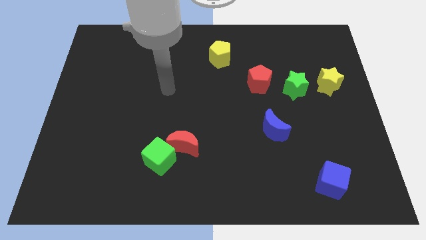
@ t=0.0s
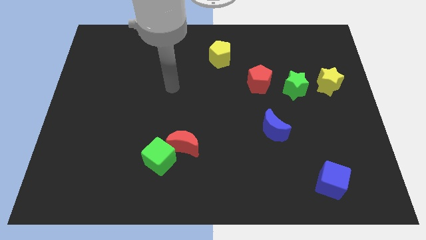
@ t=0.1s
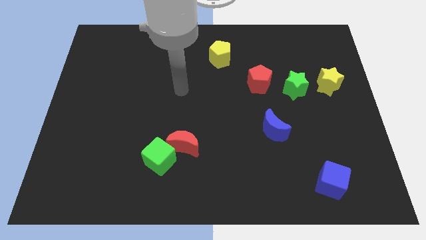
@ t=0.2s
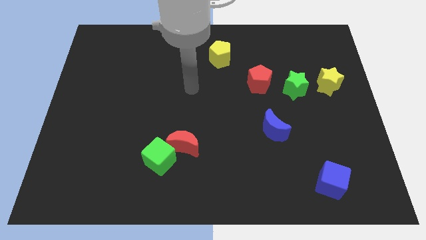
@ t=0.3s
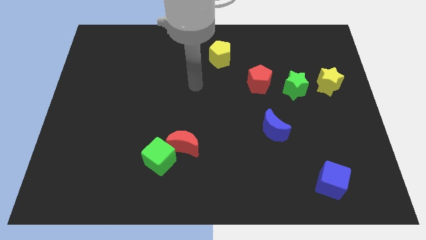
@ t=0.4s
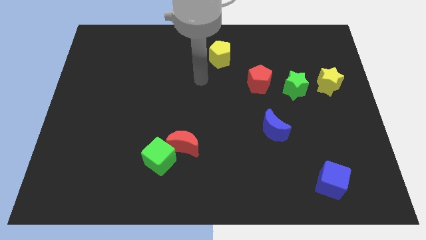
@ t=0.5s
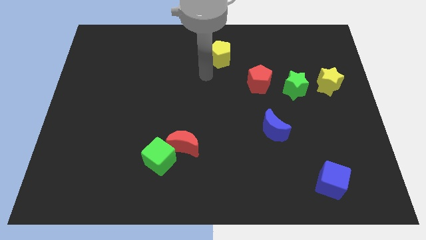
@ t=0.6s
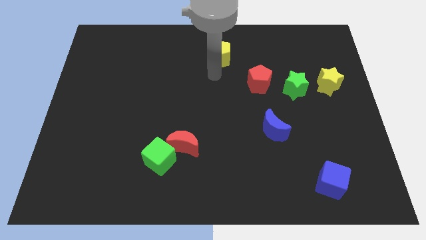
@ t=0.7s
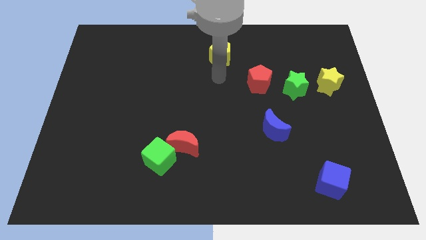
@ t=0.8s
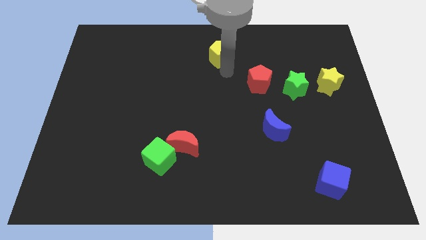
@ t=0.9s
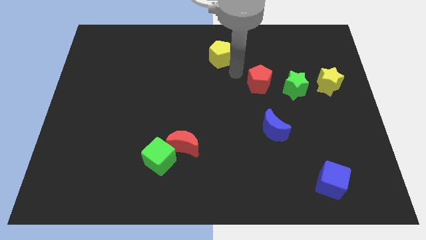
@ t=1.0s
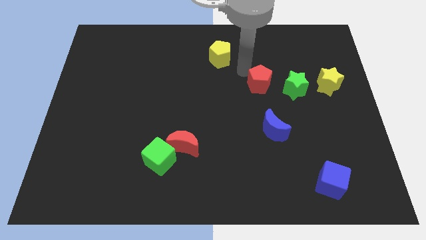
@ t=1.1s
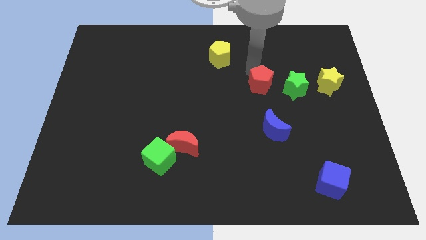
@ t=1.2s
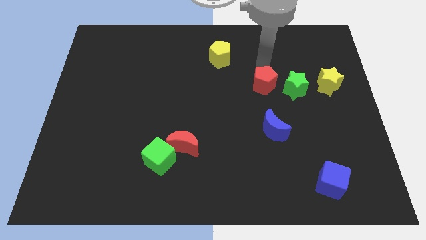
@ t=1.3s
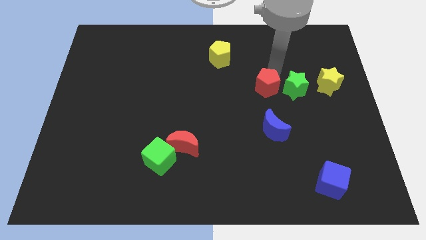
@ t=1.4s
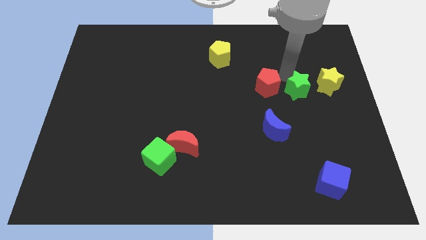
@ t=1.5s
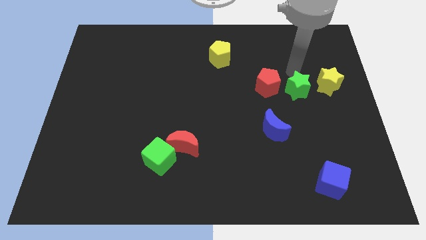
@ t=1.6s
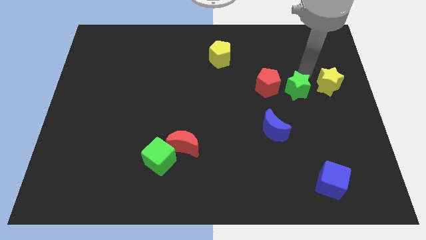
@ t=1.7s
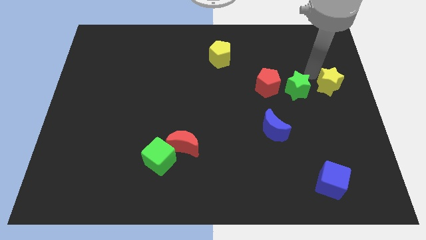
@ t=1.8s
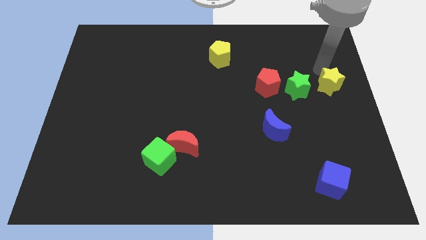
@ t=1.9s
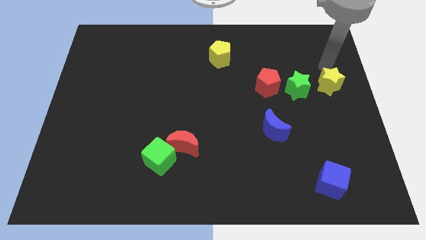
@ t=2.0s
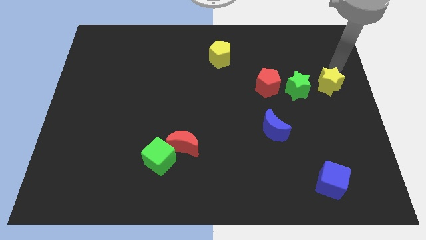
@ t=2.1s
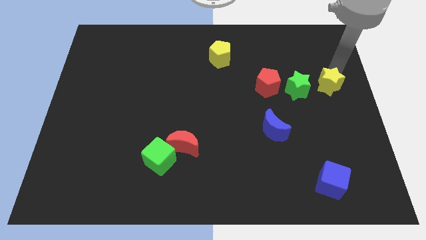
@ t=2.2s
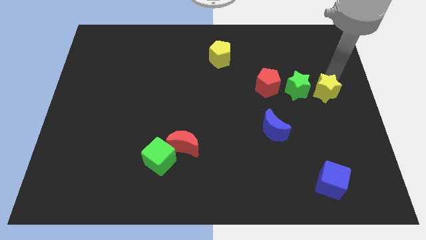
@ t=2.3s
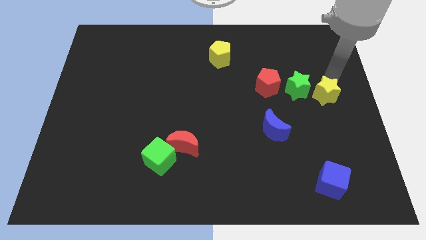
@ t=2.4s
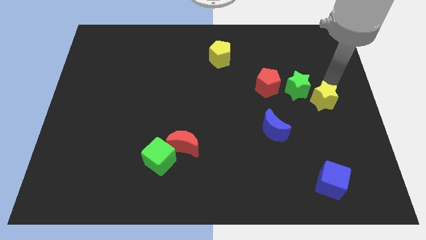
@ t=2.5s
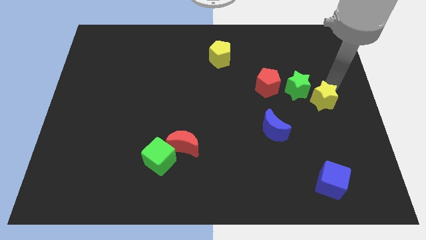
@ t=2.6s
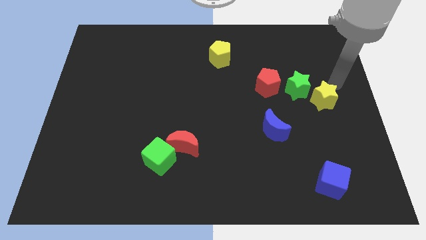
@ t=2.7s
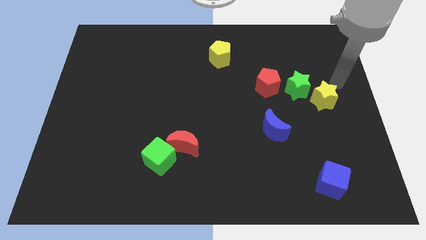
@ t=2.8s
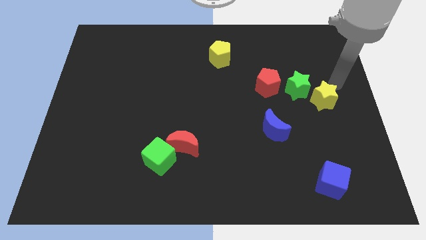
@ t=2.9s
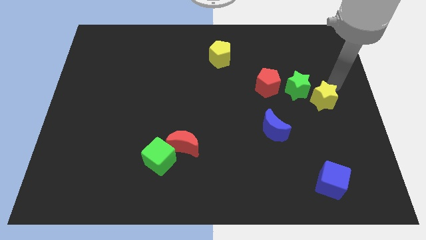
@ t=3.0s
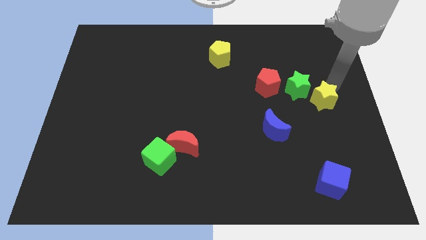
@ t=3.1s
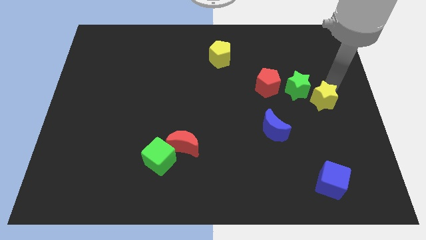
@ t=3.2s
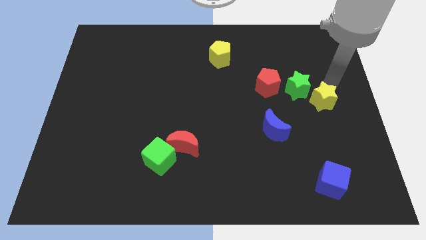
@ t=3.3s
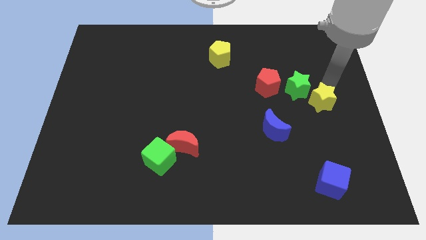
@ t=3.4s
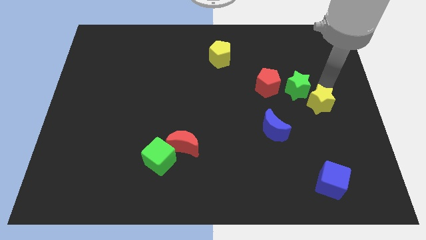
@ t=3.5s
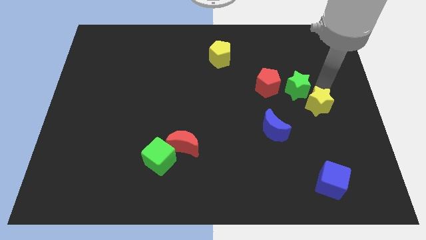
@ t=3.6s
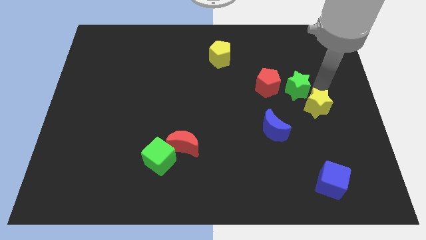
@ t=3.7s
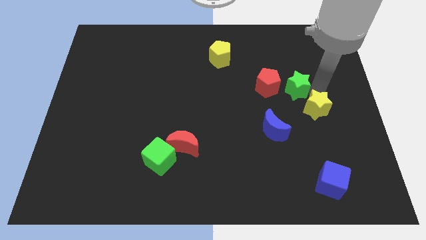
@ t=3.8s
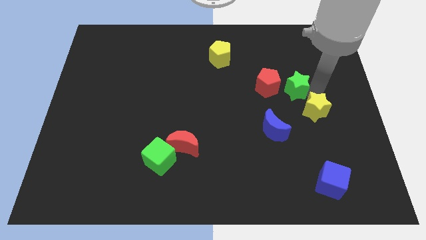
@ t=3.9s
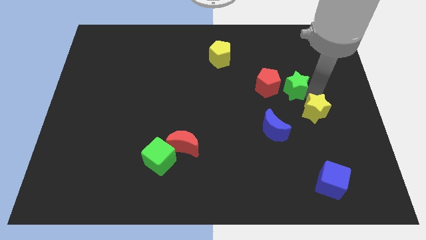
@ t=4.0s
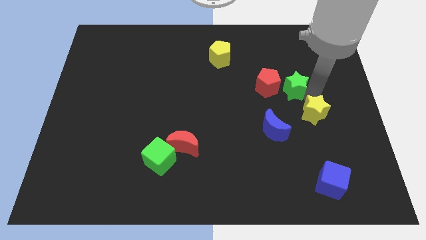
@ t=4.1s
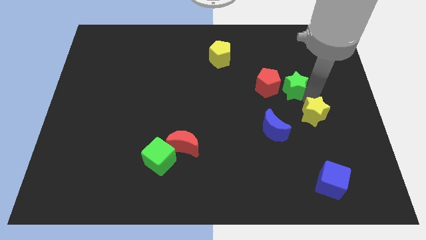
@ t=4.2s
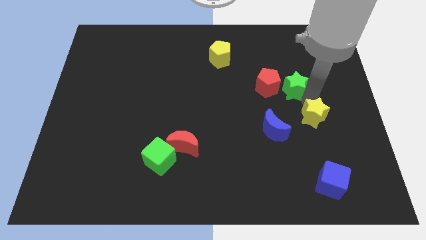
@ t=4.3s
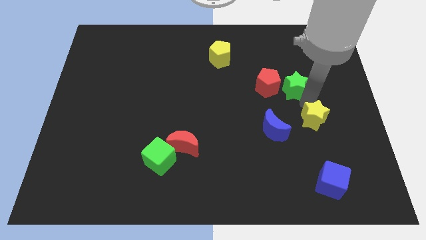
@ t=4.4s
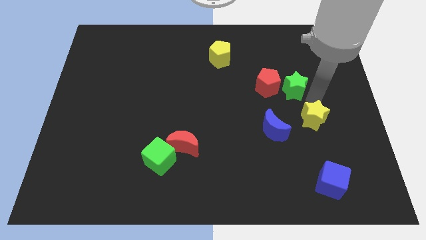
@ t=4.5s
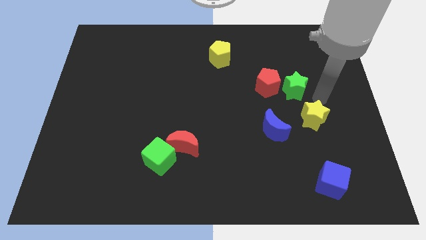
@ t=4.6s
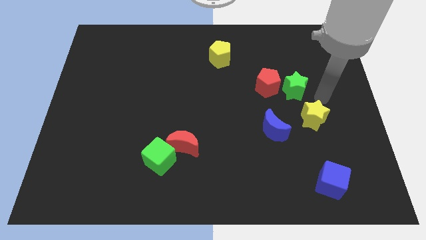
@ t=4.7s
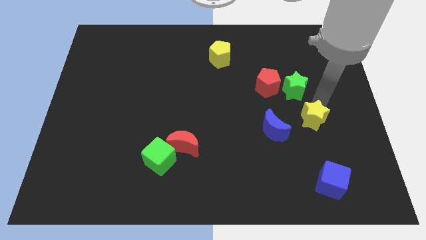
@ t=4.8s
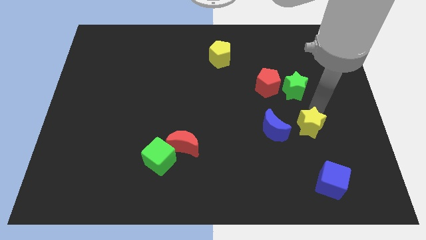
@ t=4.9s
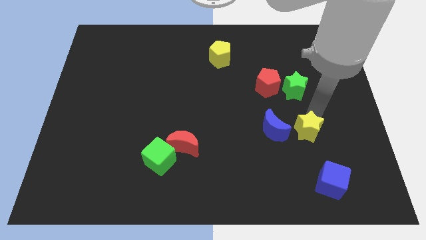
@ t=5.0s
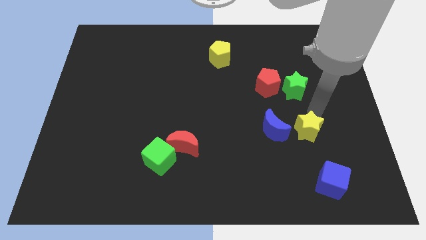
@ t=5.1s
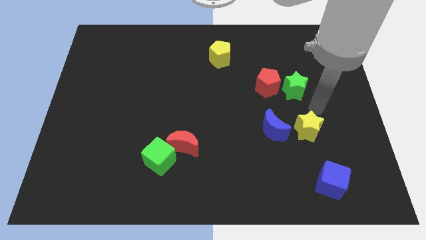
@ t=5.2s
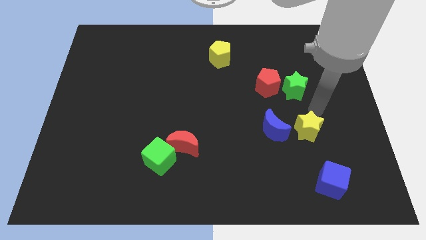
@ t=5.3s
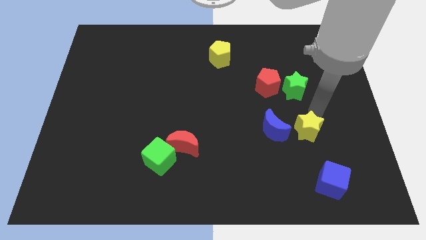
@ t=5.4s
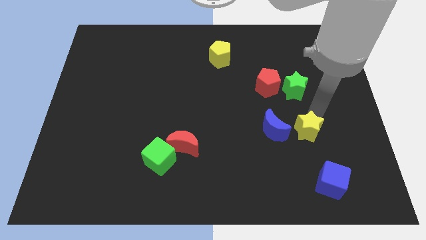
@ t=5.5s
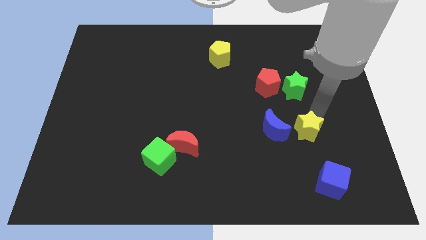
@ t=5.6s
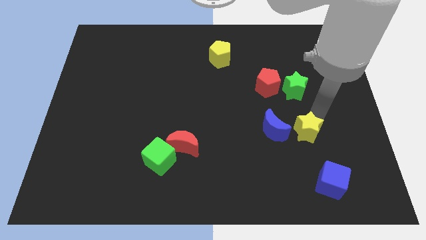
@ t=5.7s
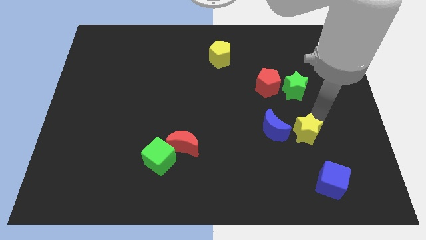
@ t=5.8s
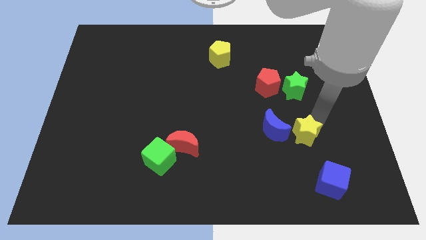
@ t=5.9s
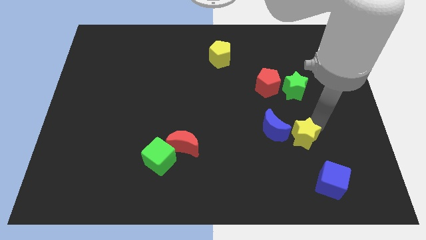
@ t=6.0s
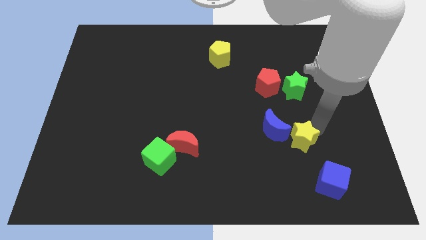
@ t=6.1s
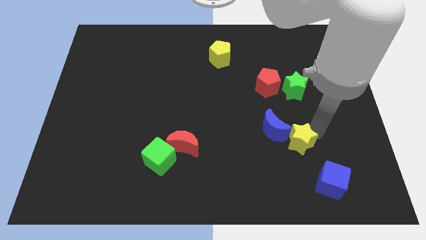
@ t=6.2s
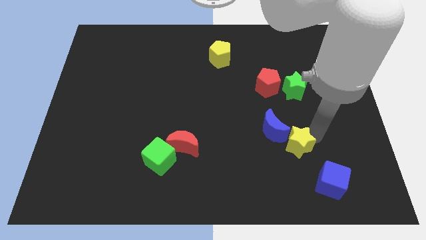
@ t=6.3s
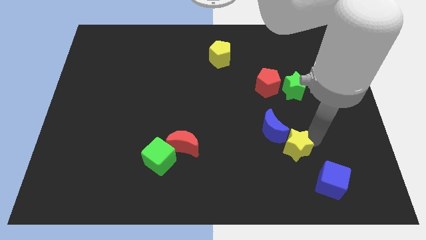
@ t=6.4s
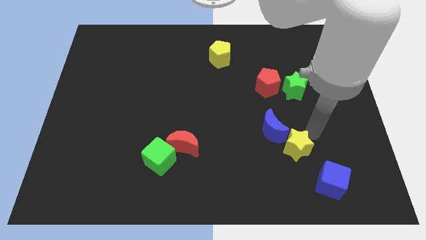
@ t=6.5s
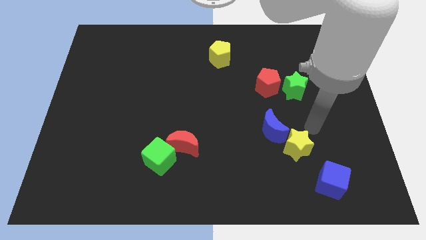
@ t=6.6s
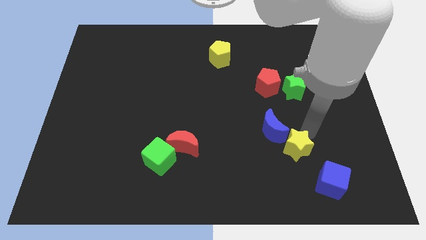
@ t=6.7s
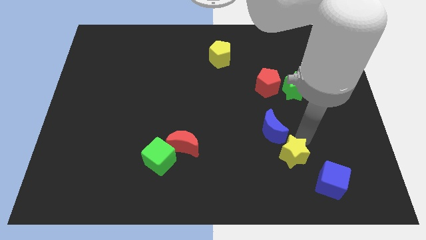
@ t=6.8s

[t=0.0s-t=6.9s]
put the yellow star to the bottom of the blue moon
